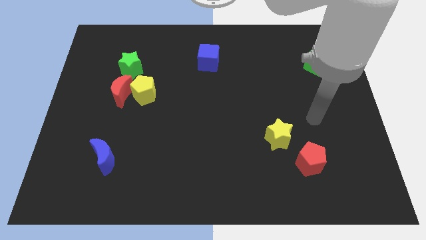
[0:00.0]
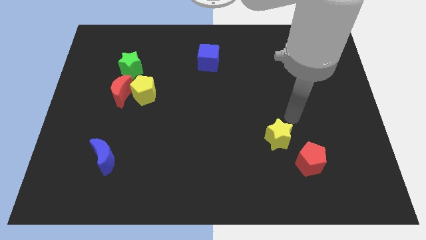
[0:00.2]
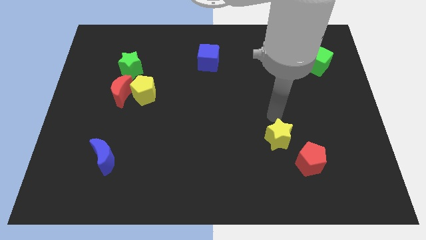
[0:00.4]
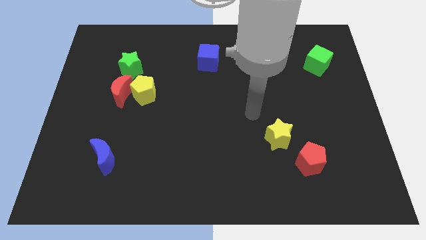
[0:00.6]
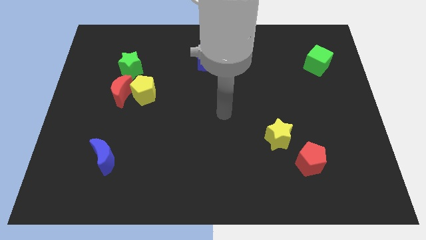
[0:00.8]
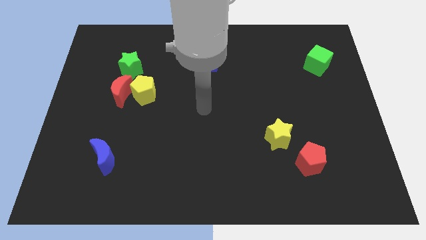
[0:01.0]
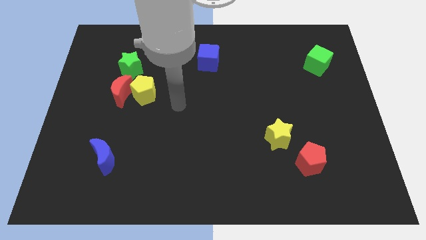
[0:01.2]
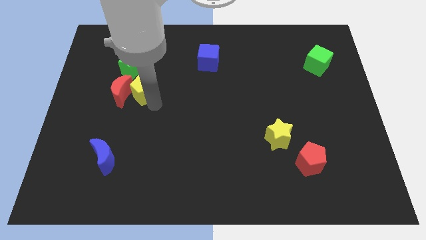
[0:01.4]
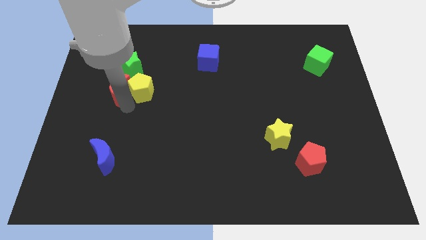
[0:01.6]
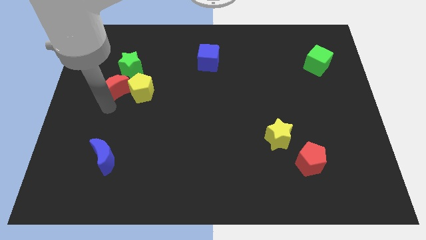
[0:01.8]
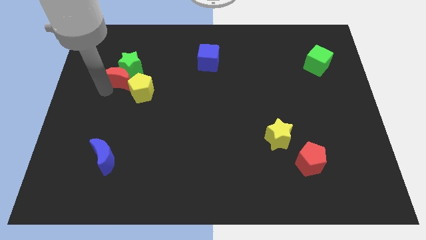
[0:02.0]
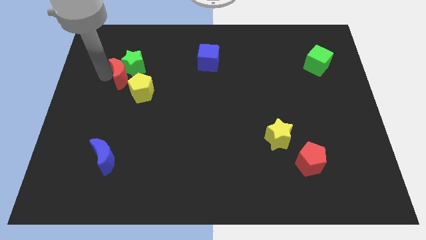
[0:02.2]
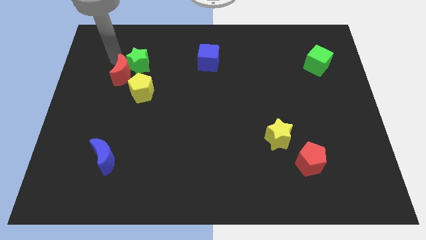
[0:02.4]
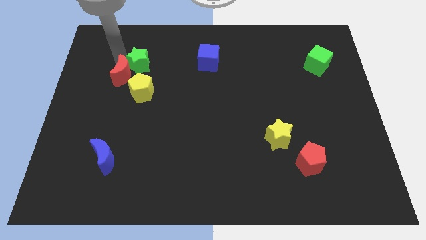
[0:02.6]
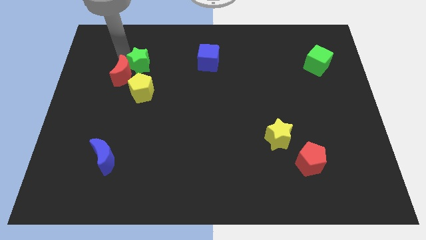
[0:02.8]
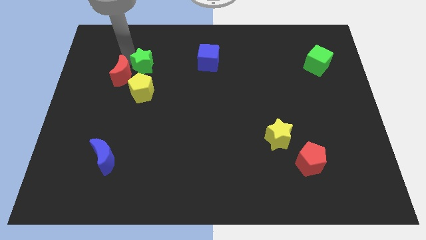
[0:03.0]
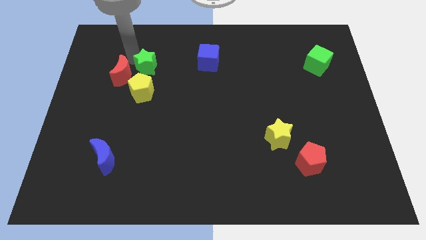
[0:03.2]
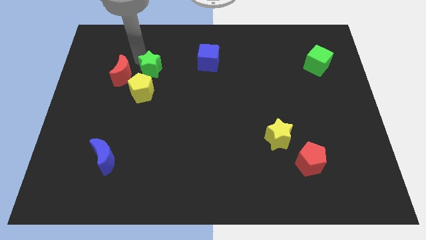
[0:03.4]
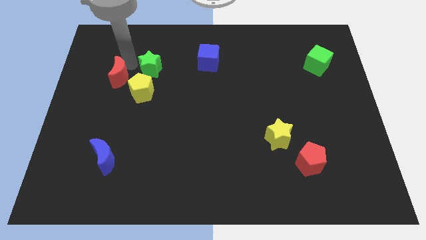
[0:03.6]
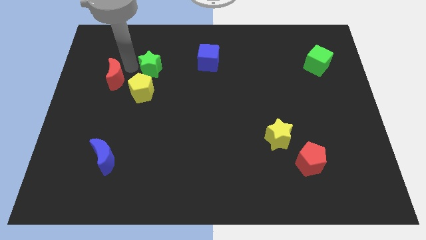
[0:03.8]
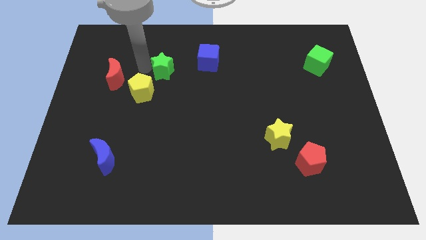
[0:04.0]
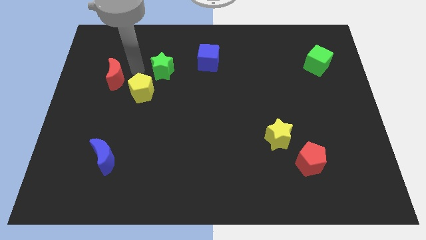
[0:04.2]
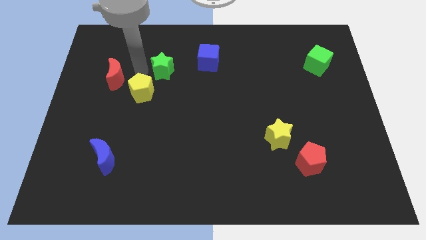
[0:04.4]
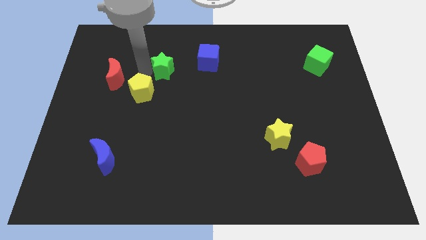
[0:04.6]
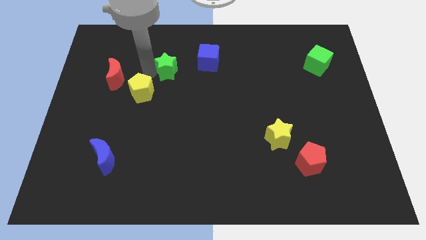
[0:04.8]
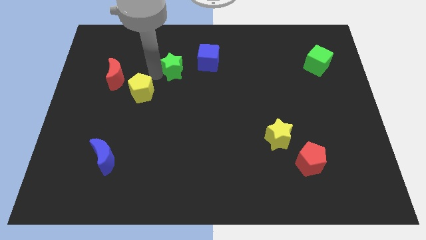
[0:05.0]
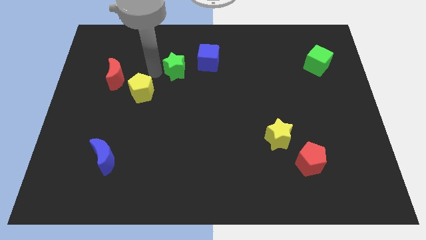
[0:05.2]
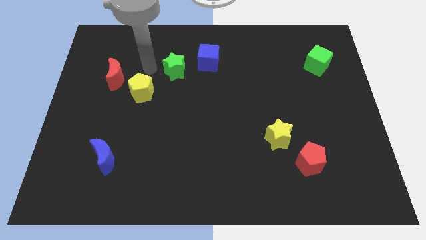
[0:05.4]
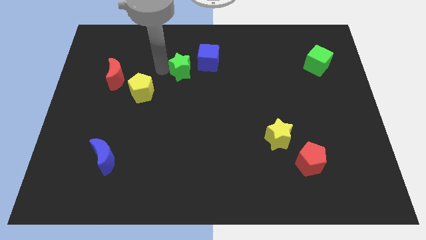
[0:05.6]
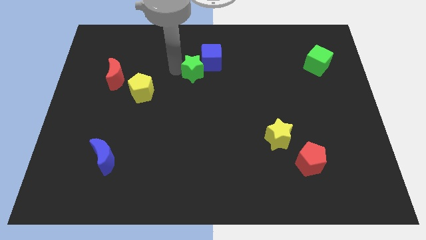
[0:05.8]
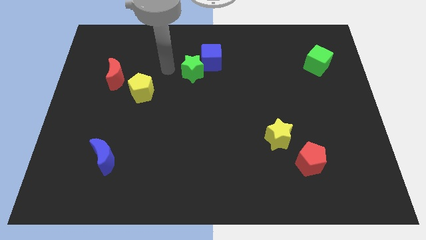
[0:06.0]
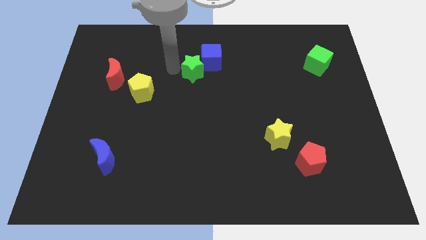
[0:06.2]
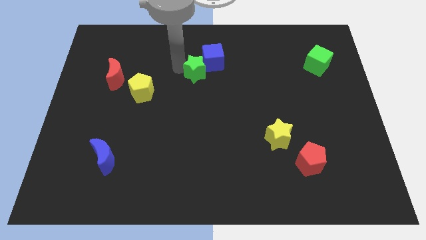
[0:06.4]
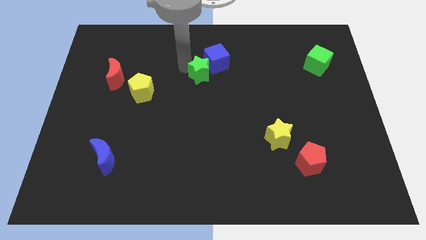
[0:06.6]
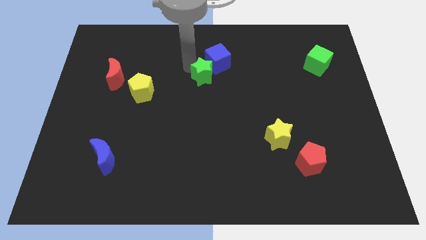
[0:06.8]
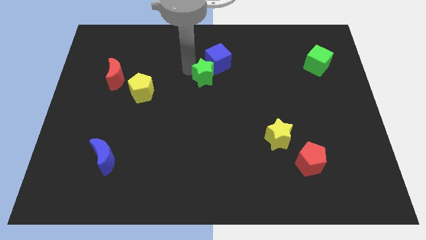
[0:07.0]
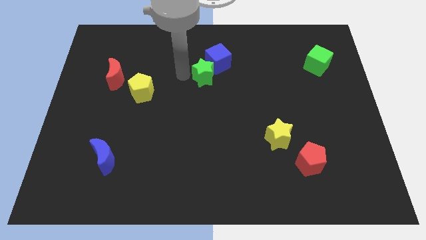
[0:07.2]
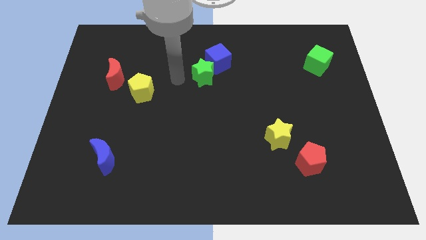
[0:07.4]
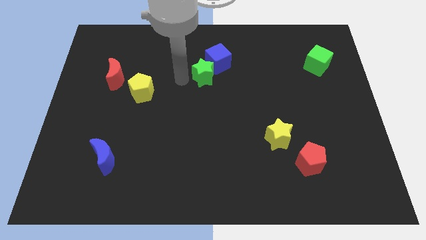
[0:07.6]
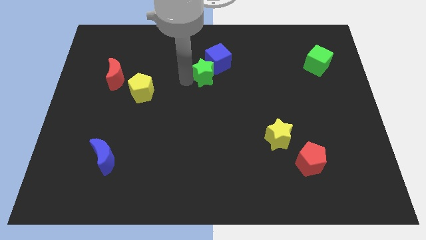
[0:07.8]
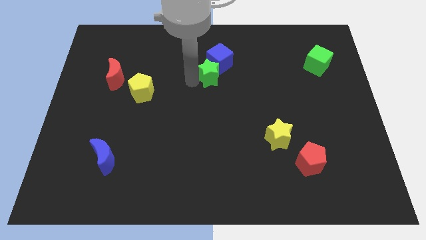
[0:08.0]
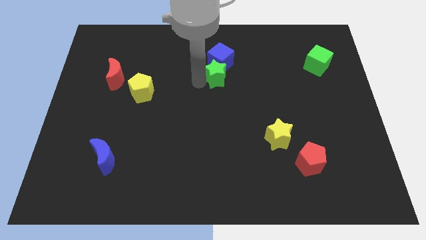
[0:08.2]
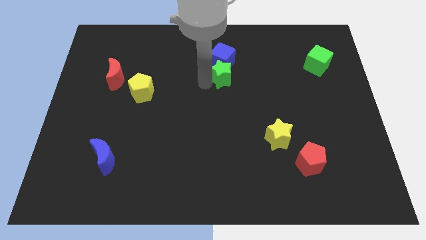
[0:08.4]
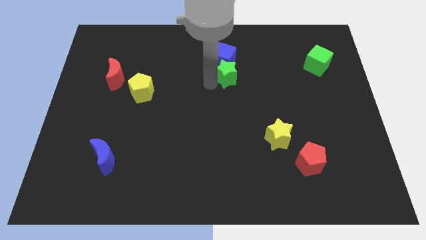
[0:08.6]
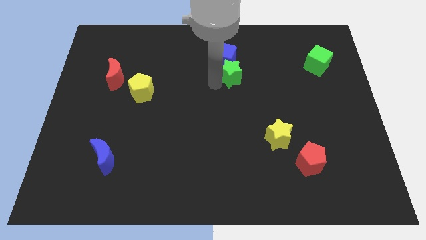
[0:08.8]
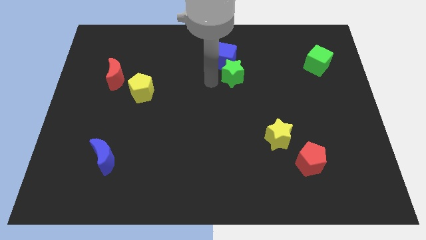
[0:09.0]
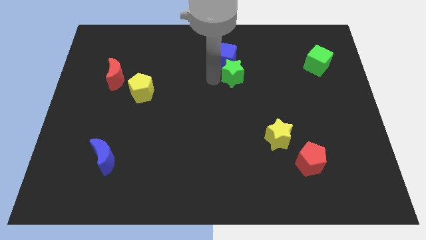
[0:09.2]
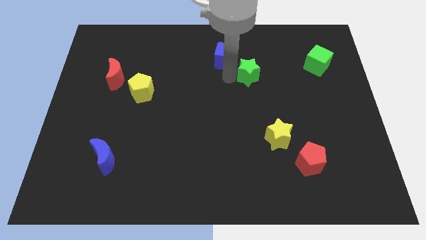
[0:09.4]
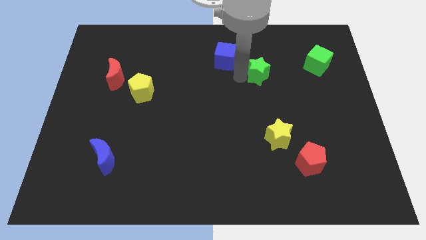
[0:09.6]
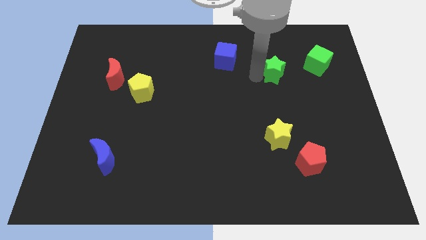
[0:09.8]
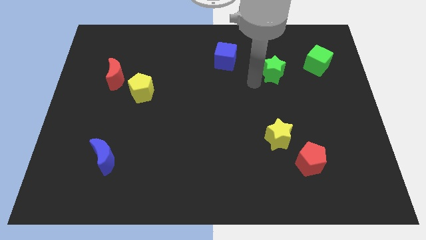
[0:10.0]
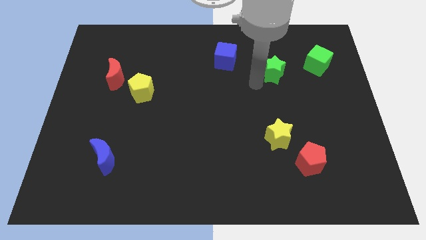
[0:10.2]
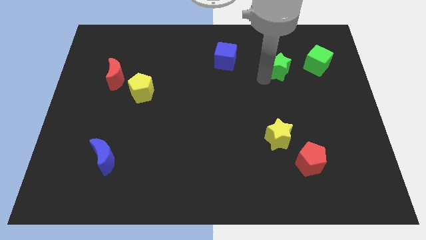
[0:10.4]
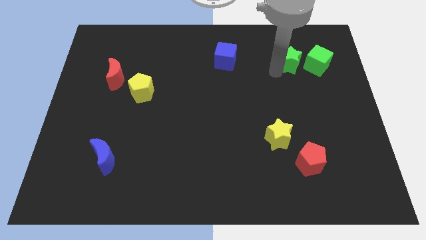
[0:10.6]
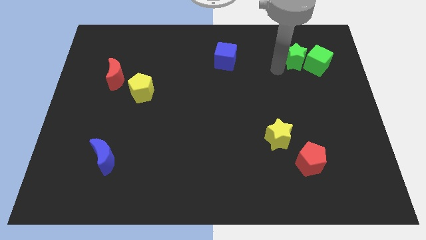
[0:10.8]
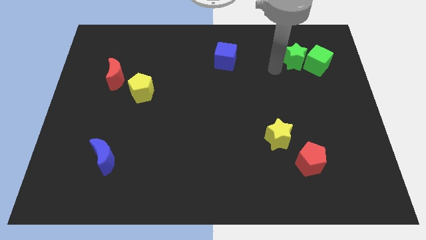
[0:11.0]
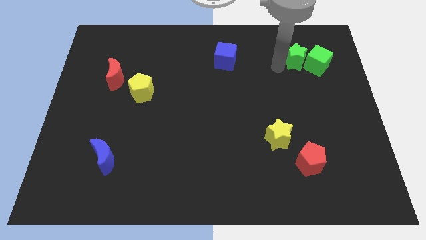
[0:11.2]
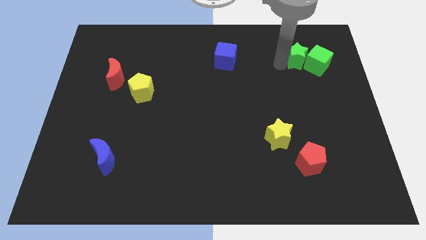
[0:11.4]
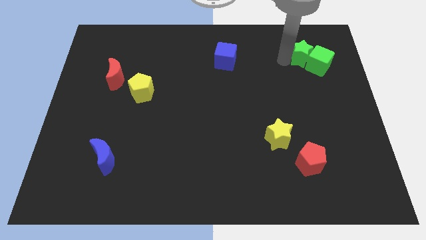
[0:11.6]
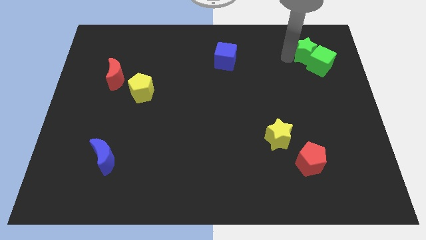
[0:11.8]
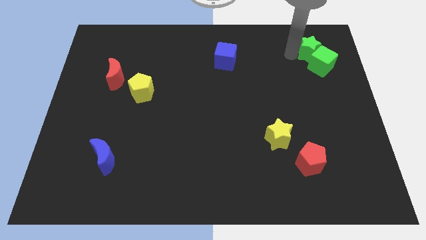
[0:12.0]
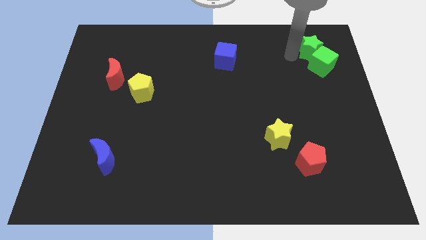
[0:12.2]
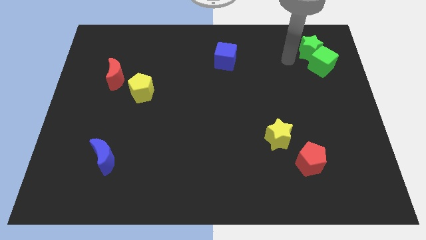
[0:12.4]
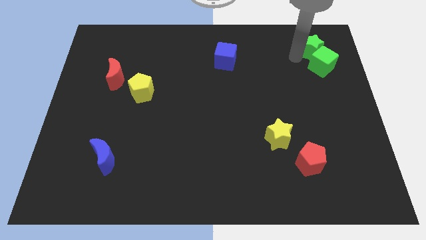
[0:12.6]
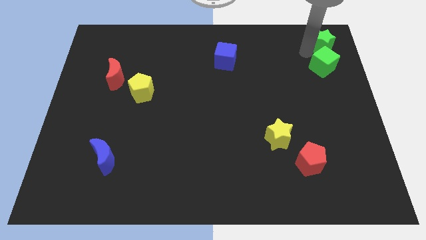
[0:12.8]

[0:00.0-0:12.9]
push the green star to the top right
